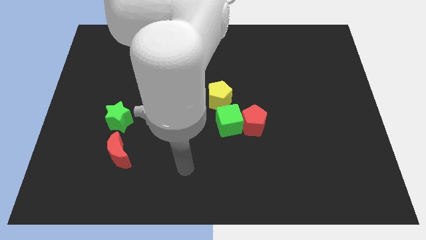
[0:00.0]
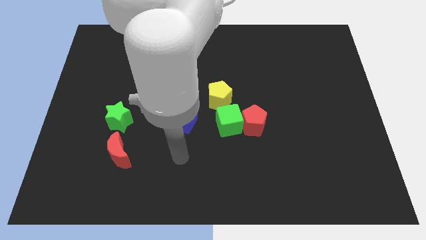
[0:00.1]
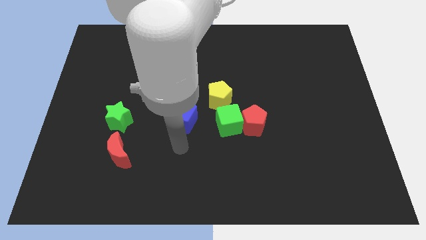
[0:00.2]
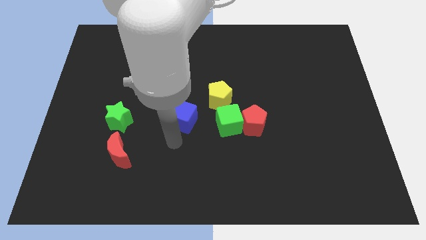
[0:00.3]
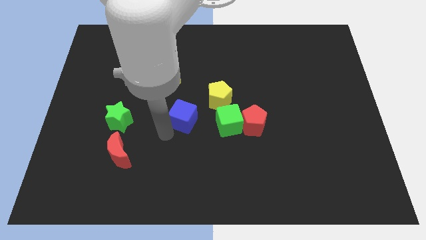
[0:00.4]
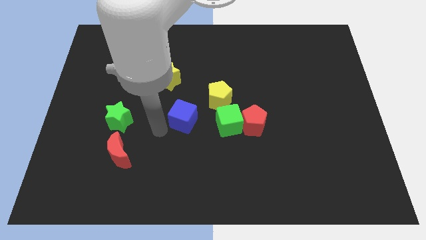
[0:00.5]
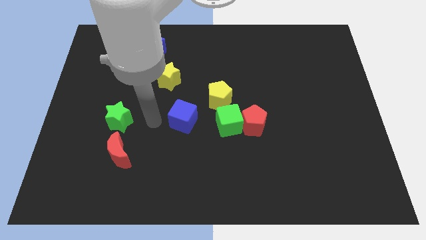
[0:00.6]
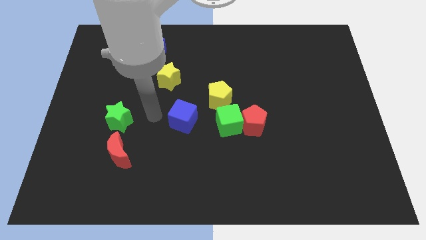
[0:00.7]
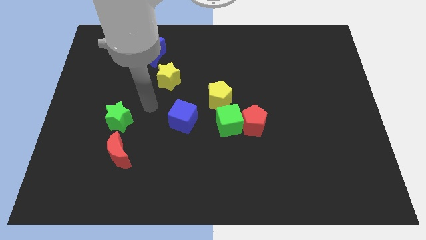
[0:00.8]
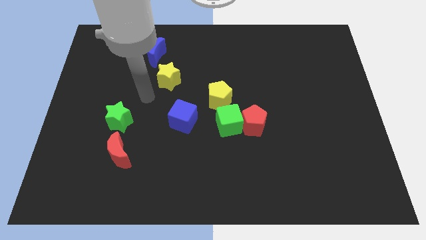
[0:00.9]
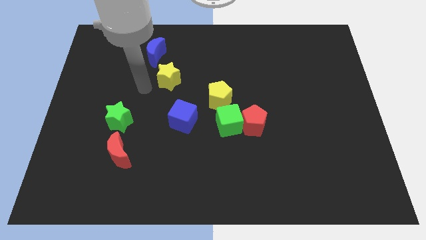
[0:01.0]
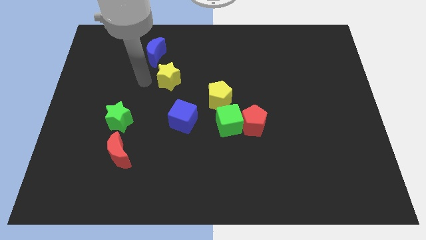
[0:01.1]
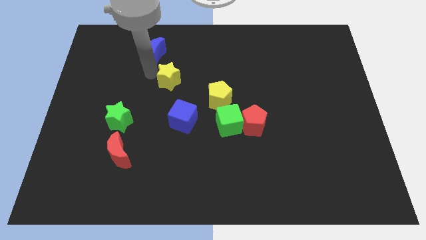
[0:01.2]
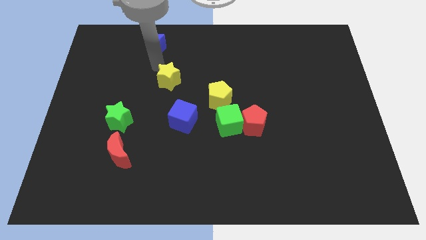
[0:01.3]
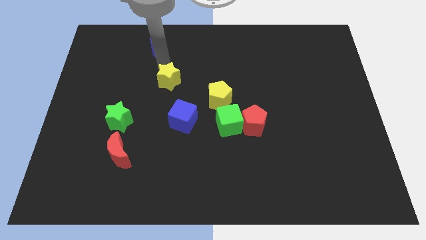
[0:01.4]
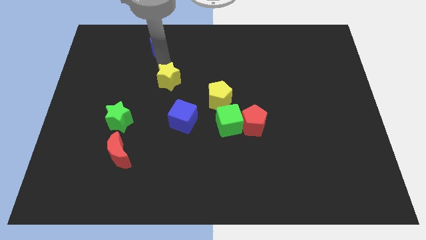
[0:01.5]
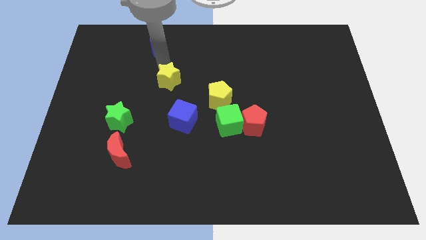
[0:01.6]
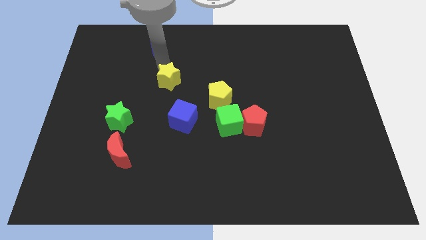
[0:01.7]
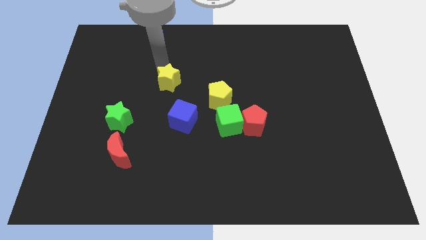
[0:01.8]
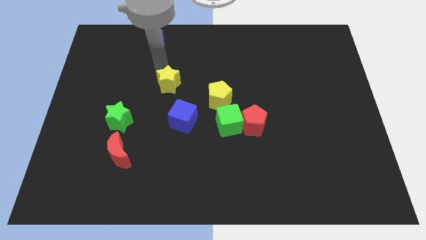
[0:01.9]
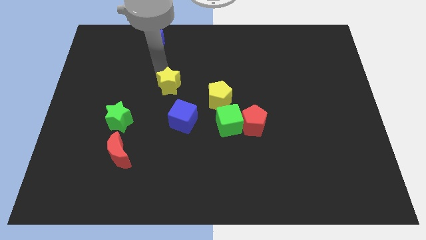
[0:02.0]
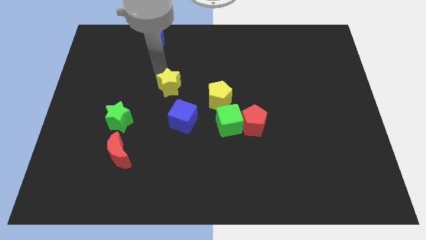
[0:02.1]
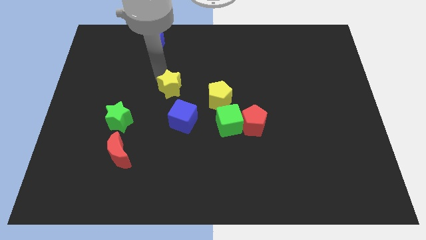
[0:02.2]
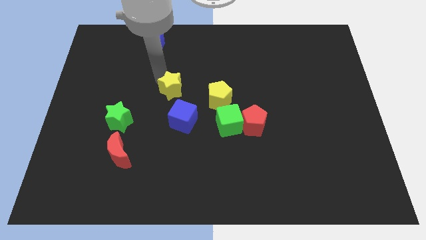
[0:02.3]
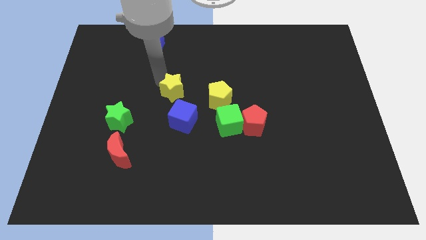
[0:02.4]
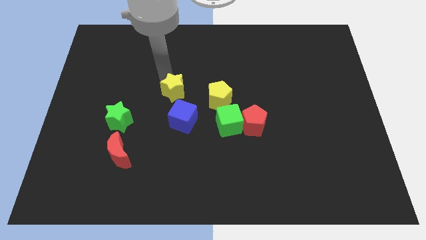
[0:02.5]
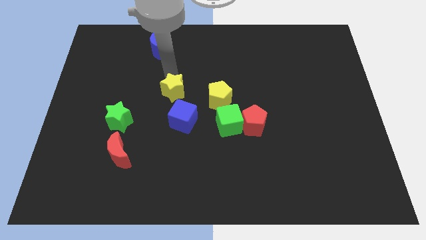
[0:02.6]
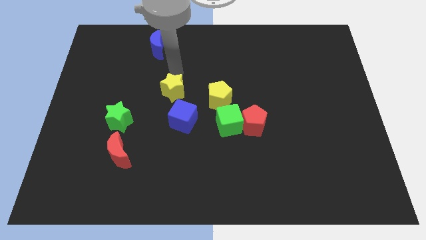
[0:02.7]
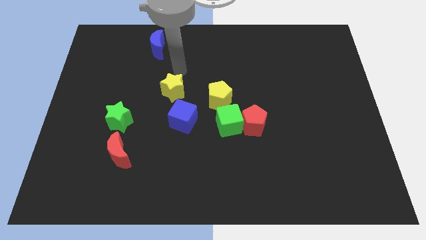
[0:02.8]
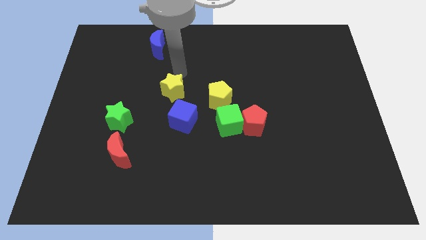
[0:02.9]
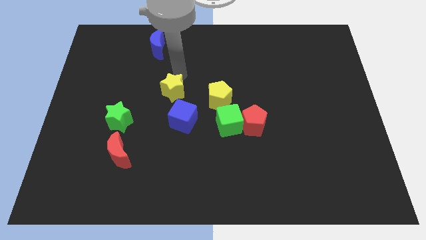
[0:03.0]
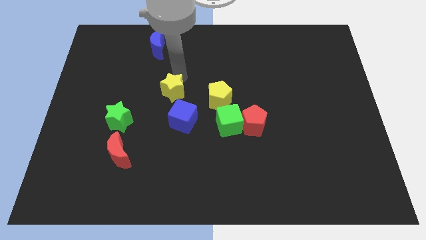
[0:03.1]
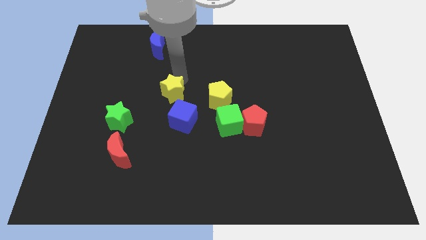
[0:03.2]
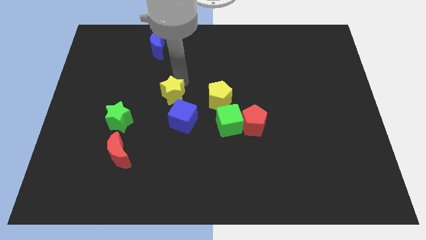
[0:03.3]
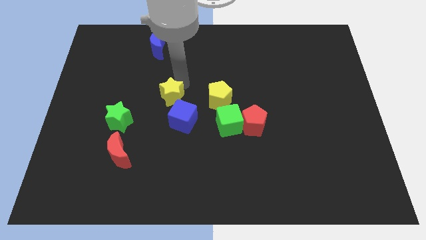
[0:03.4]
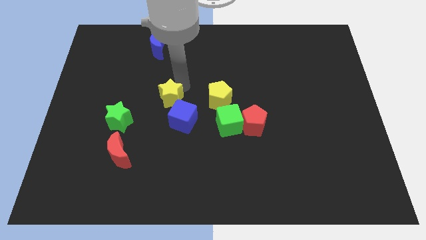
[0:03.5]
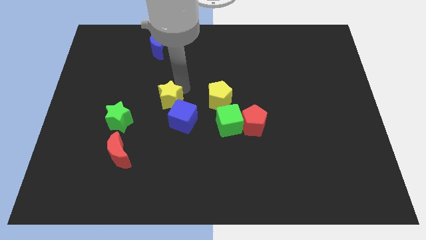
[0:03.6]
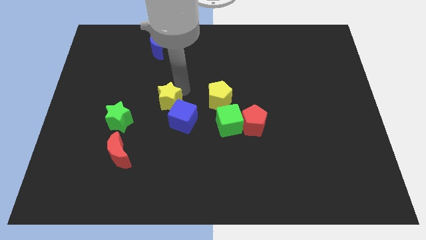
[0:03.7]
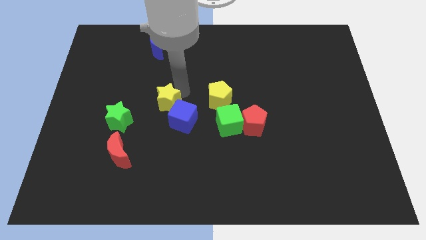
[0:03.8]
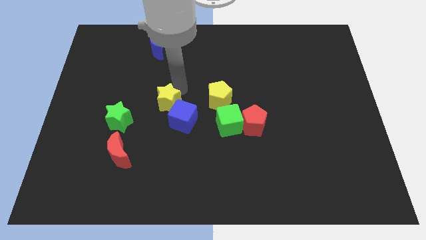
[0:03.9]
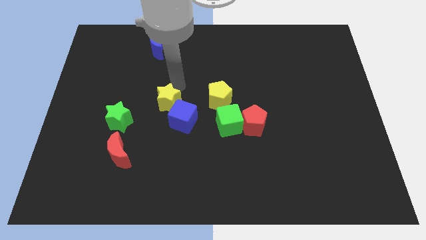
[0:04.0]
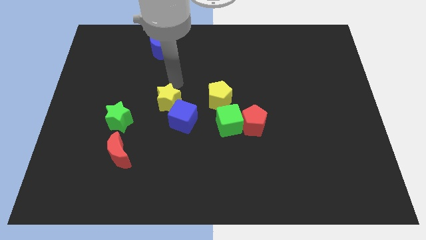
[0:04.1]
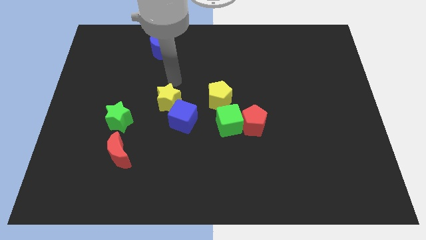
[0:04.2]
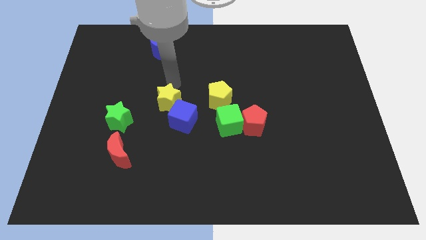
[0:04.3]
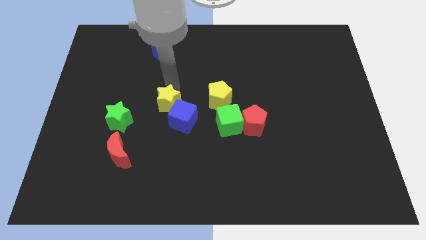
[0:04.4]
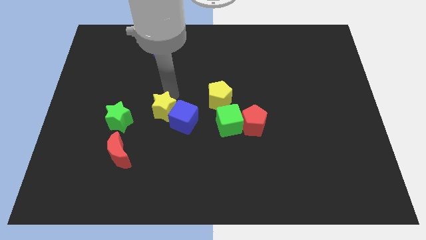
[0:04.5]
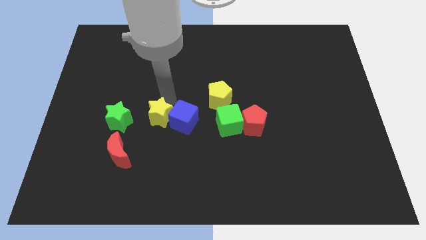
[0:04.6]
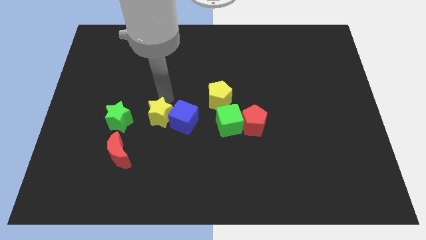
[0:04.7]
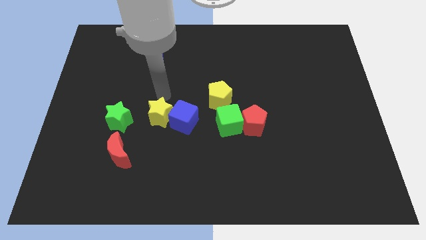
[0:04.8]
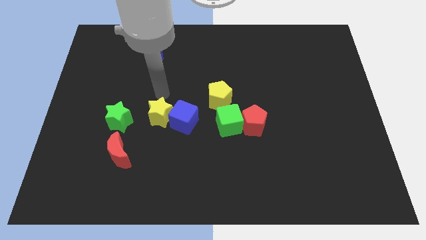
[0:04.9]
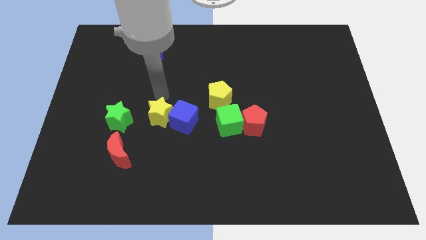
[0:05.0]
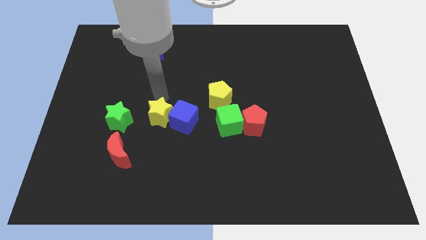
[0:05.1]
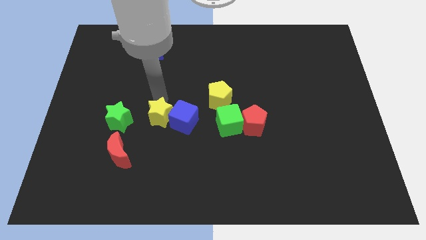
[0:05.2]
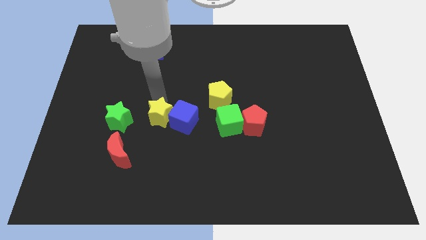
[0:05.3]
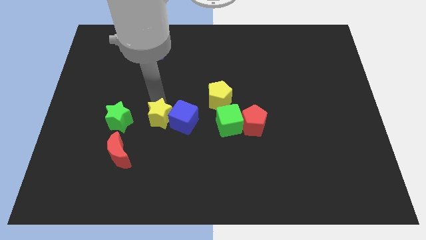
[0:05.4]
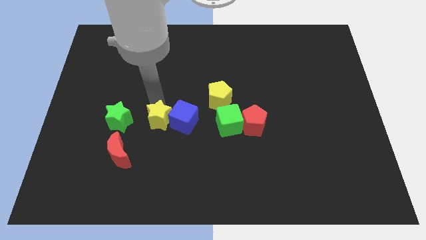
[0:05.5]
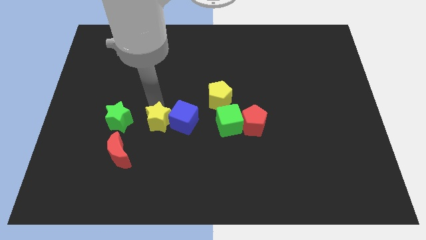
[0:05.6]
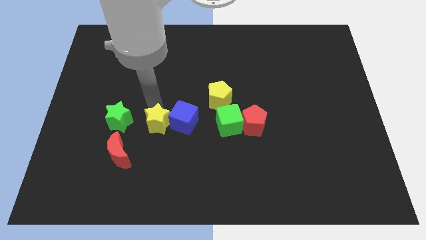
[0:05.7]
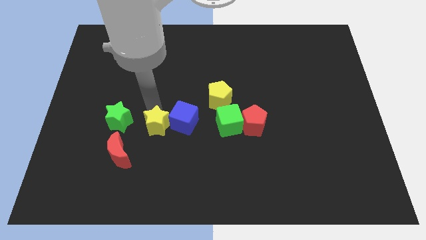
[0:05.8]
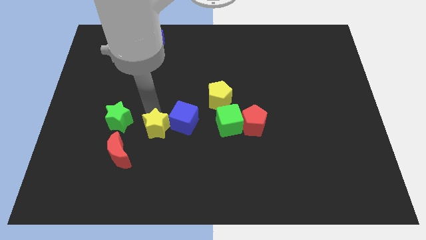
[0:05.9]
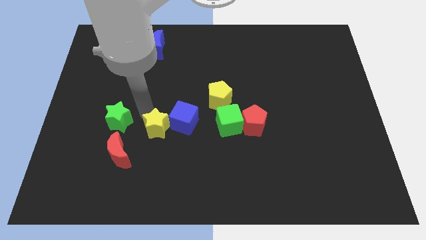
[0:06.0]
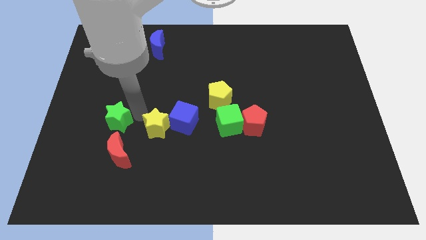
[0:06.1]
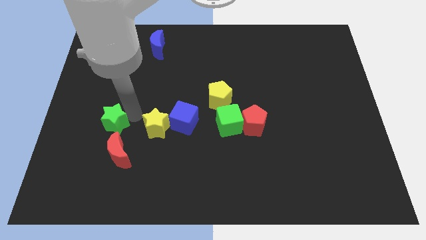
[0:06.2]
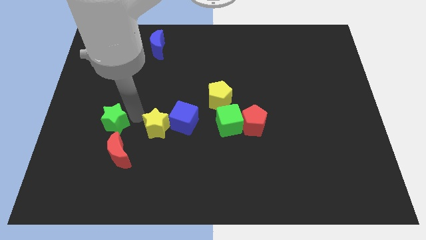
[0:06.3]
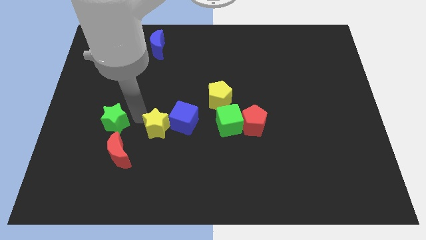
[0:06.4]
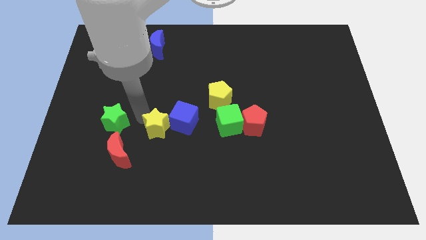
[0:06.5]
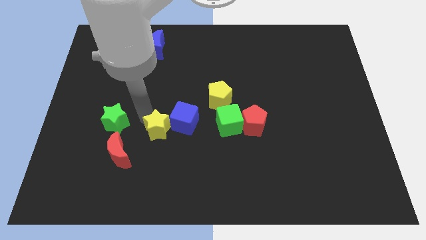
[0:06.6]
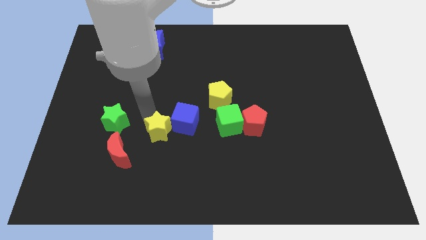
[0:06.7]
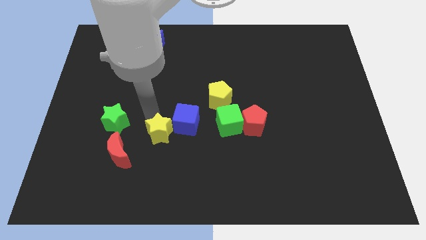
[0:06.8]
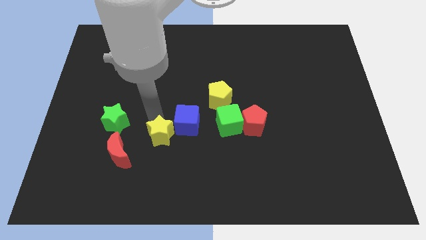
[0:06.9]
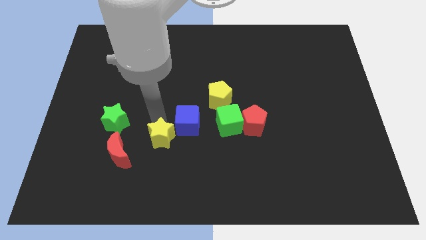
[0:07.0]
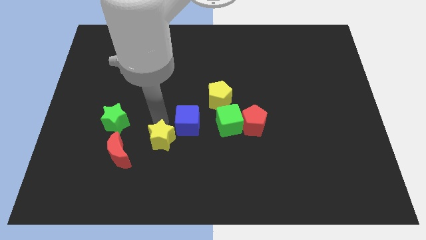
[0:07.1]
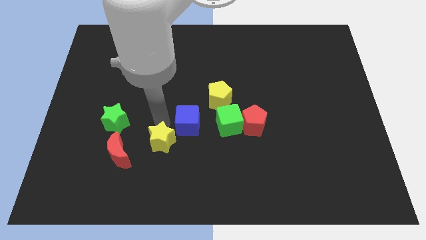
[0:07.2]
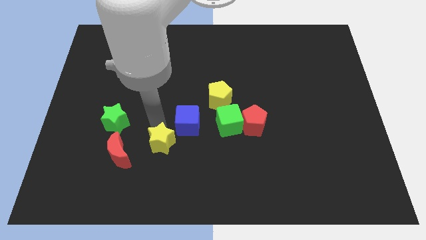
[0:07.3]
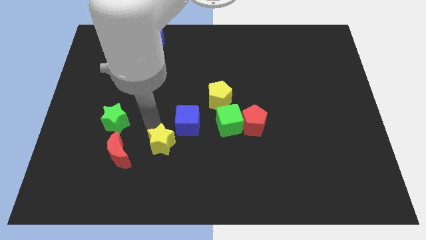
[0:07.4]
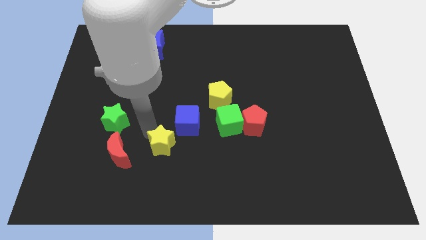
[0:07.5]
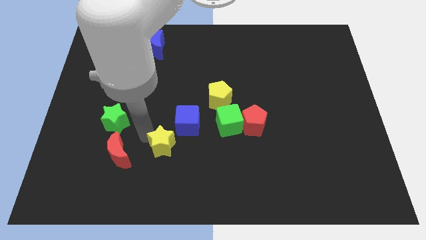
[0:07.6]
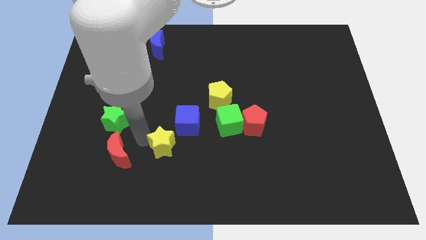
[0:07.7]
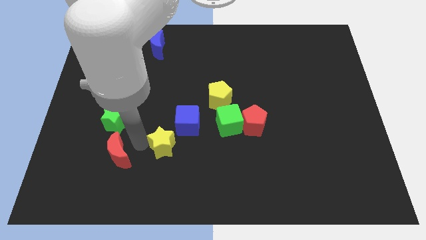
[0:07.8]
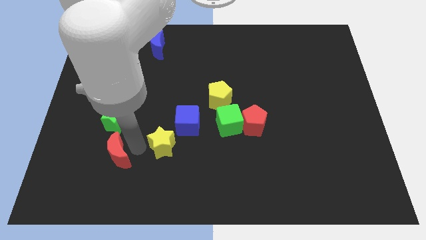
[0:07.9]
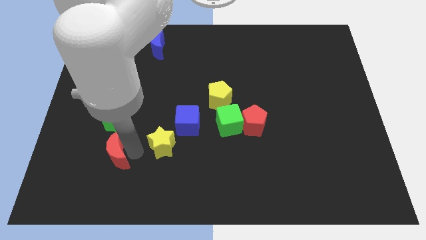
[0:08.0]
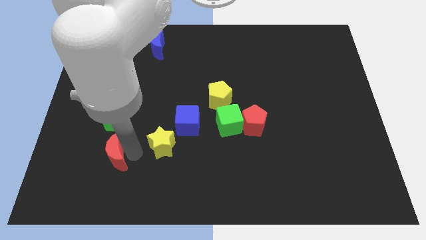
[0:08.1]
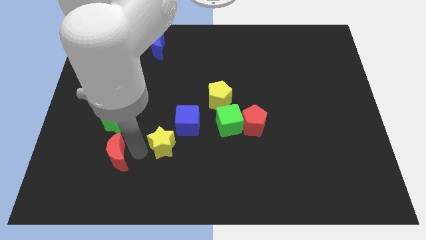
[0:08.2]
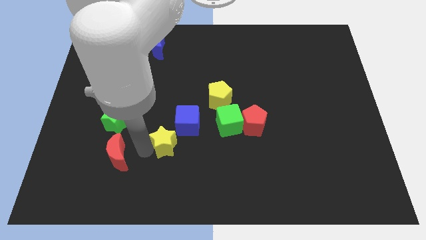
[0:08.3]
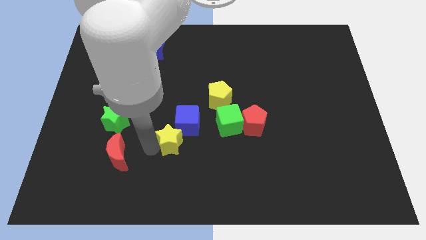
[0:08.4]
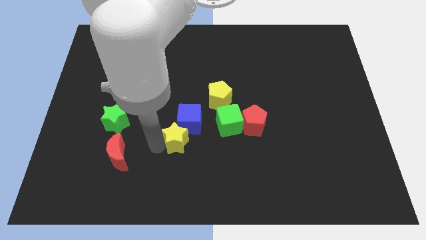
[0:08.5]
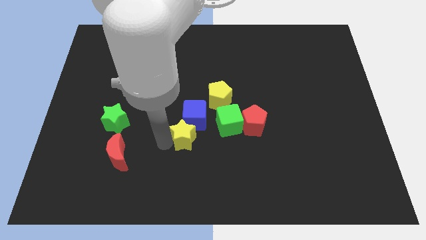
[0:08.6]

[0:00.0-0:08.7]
push the yellow star to the bottom left side of the green cube
